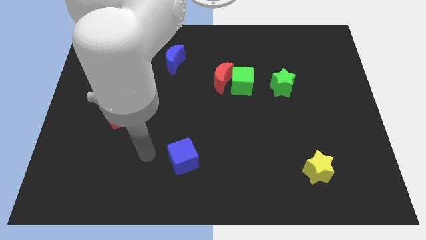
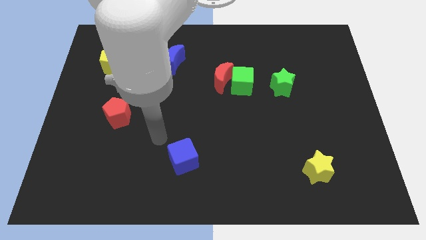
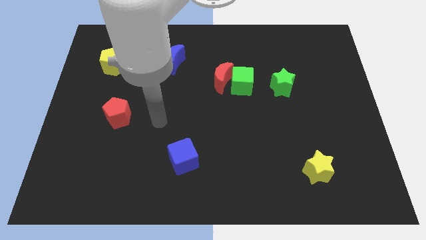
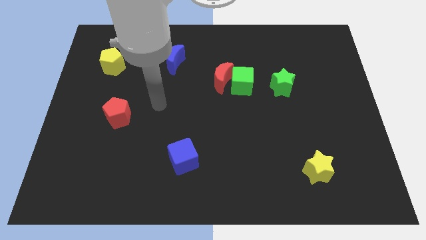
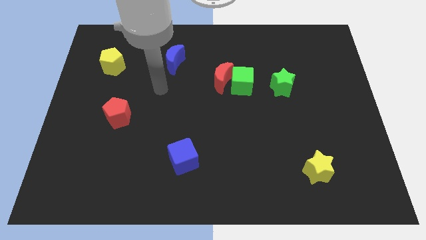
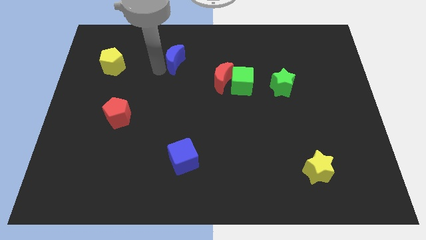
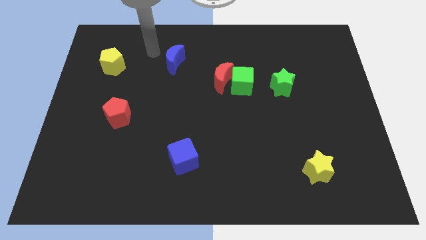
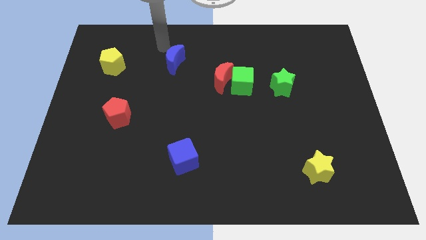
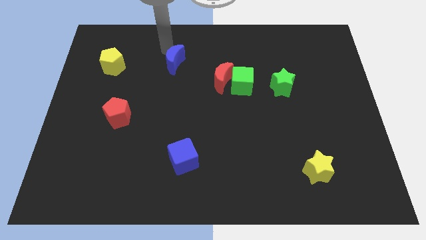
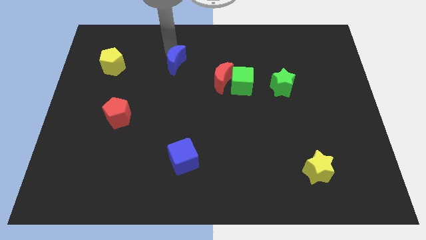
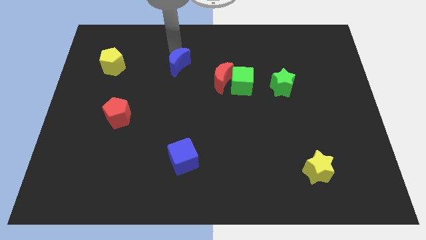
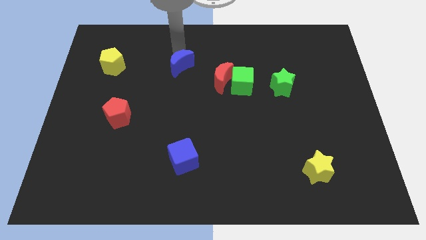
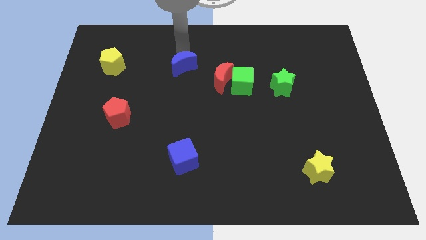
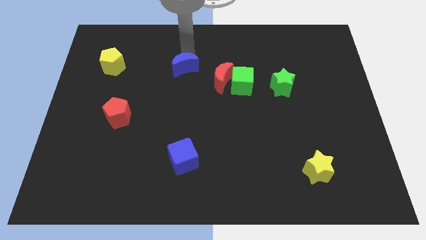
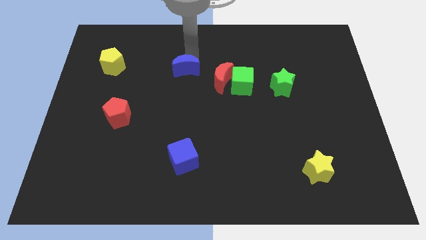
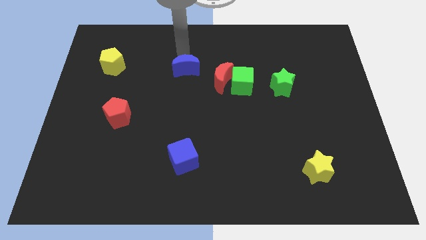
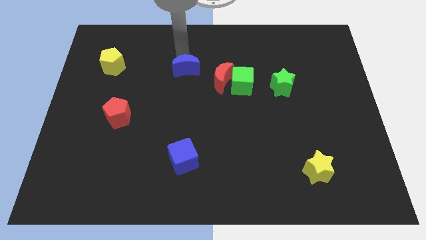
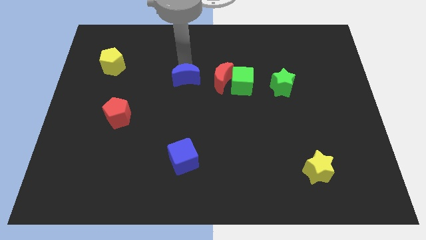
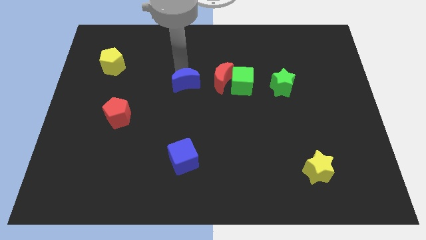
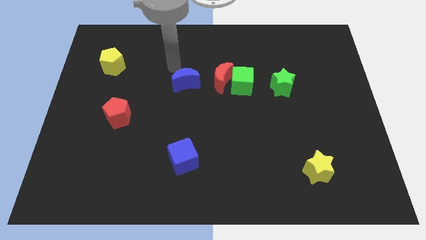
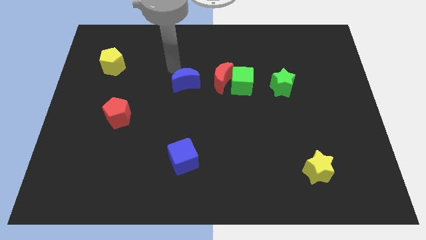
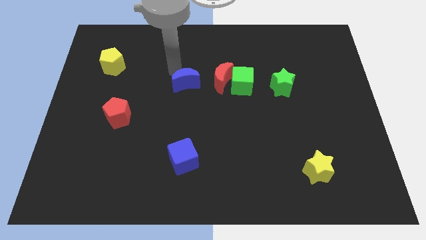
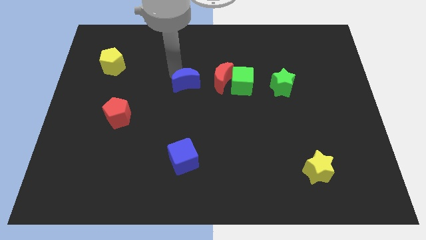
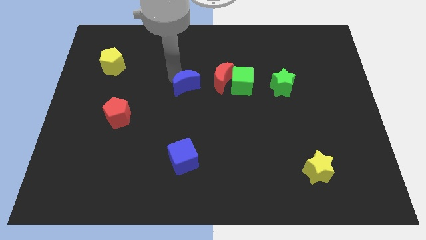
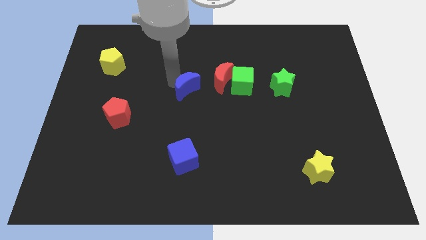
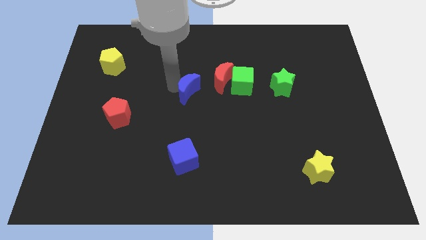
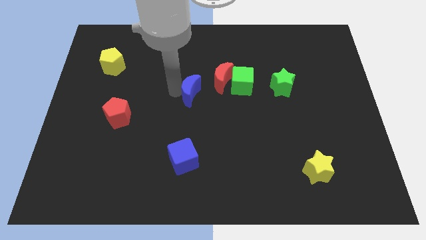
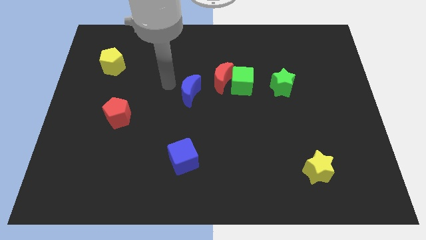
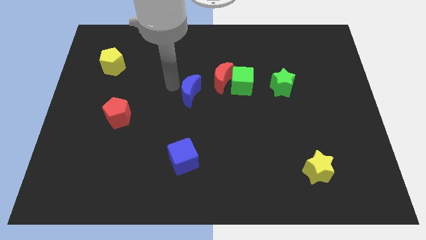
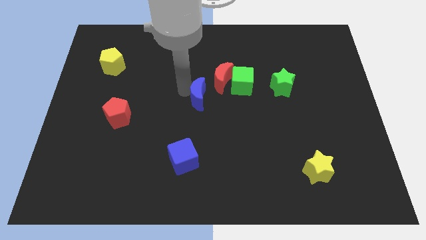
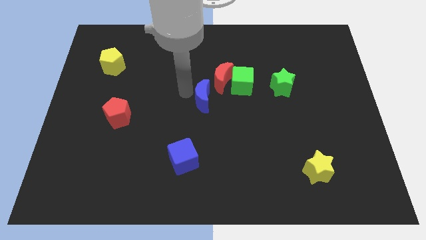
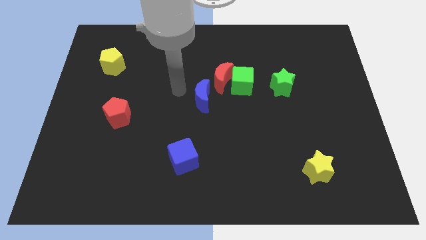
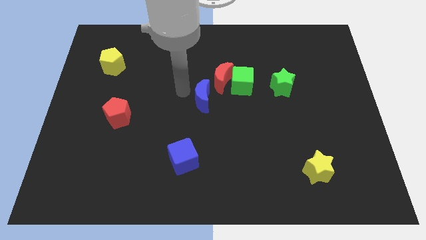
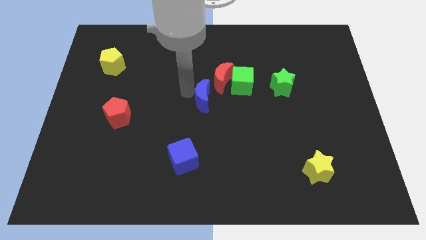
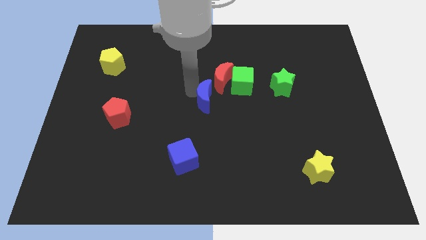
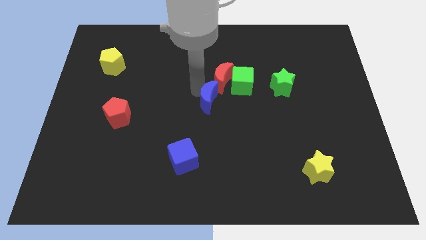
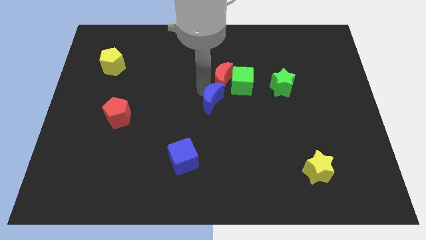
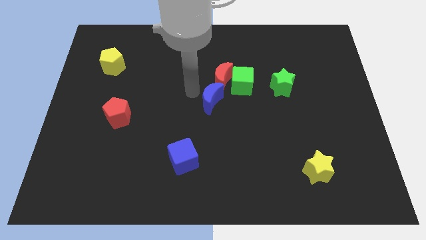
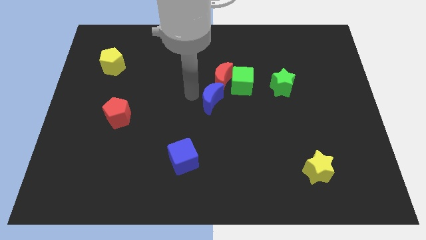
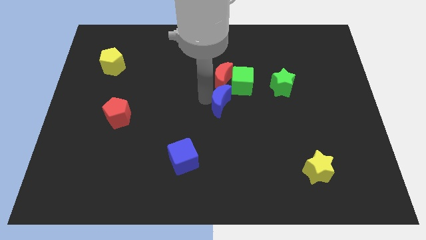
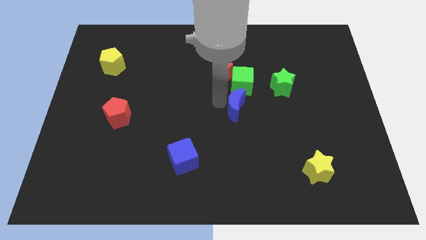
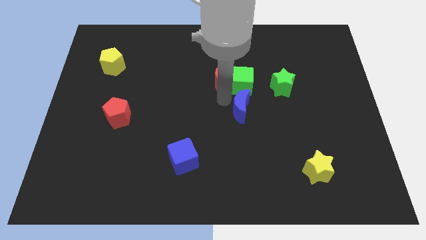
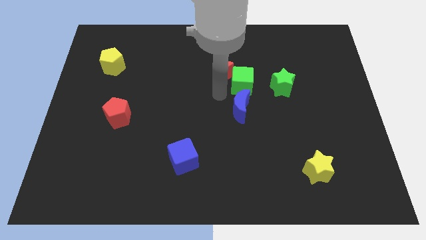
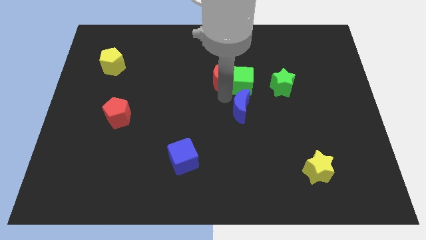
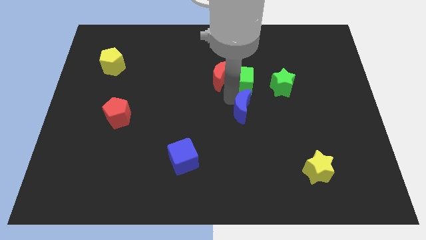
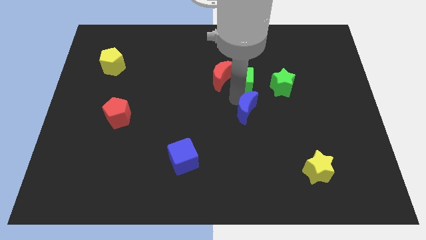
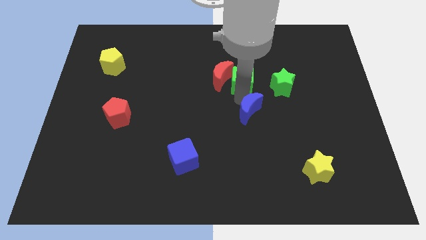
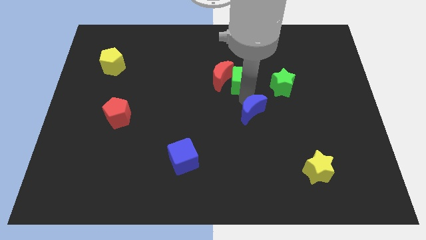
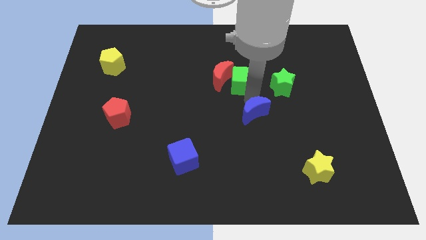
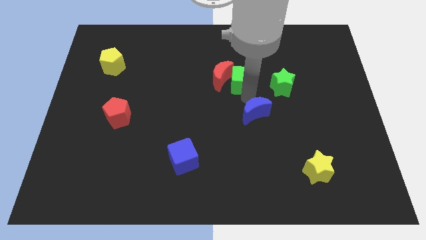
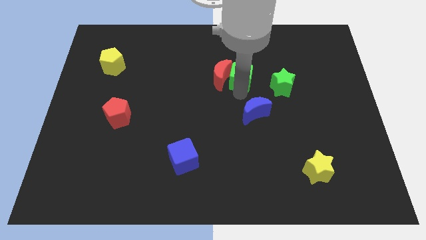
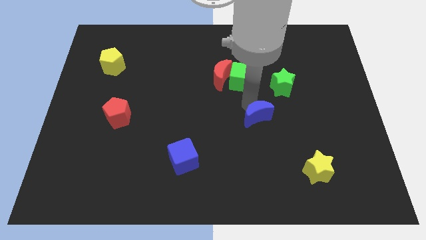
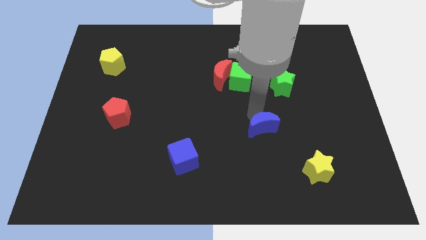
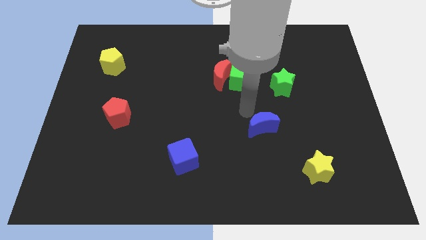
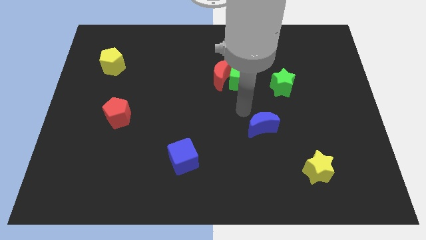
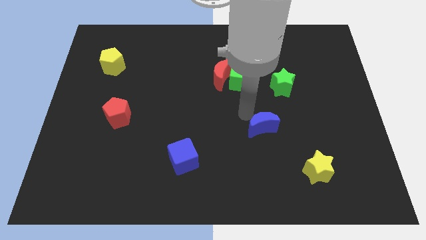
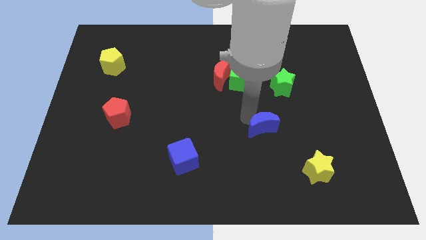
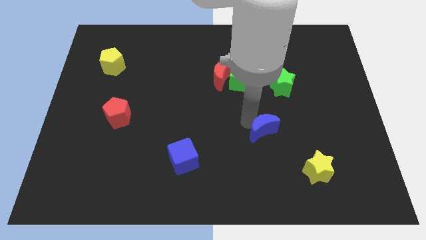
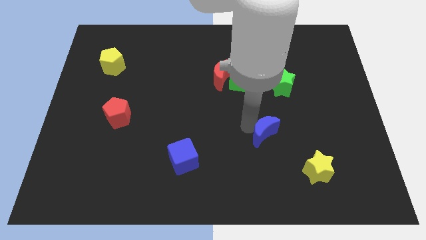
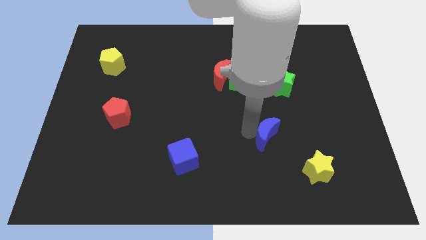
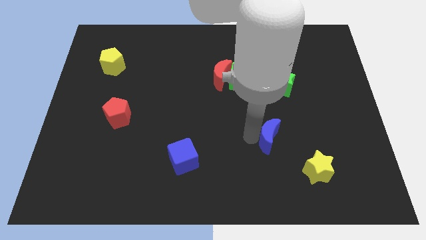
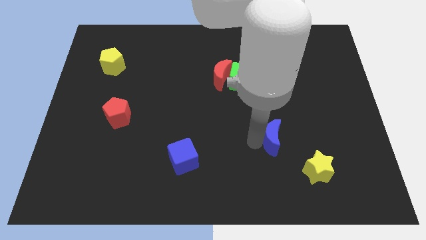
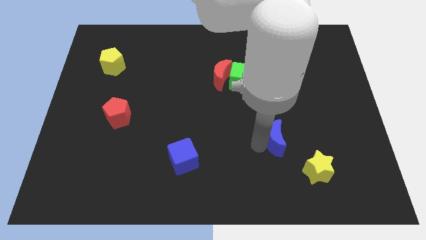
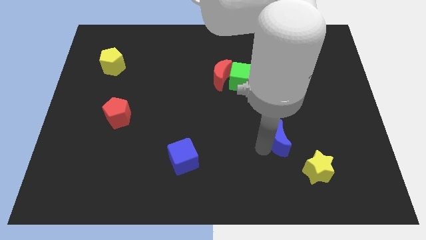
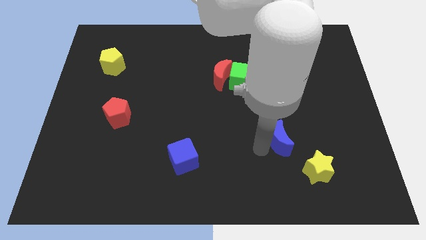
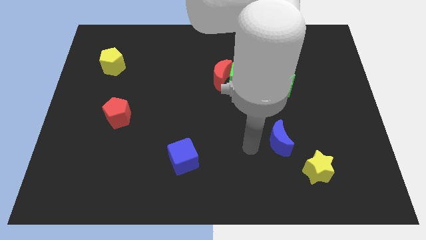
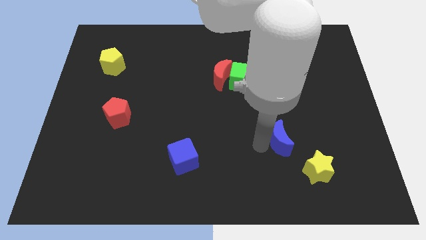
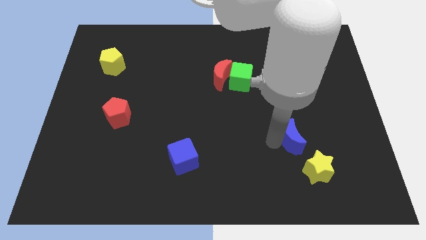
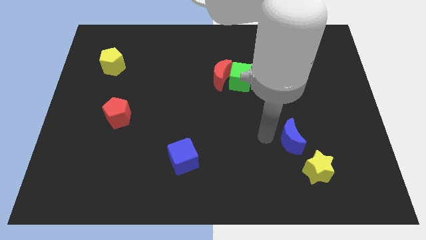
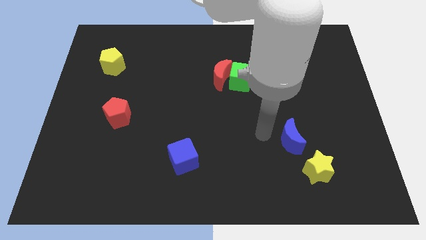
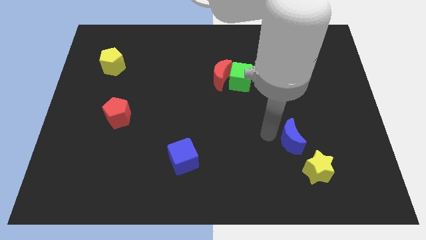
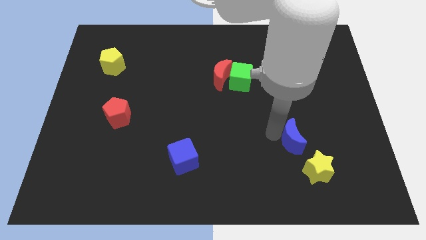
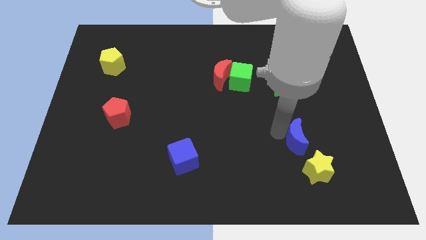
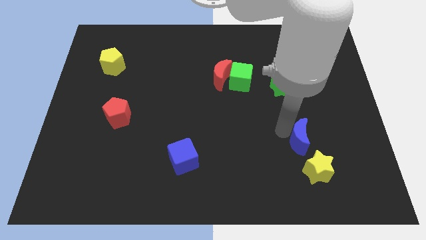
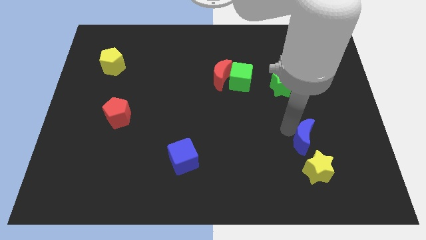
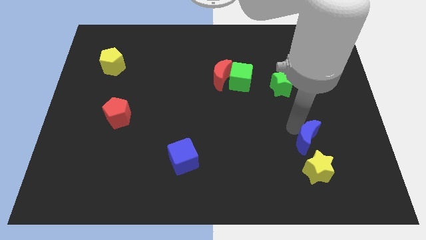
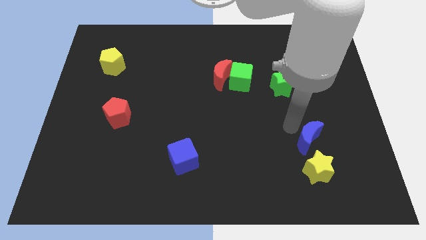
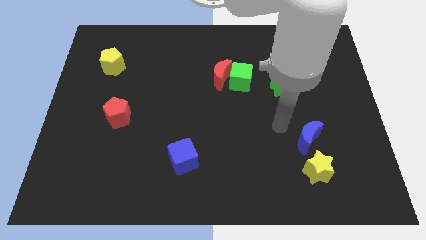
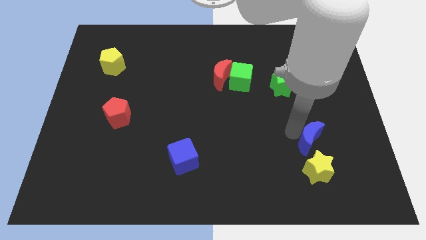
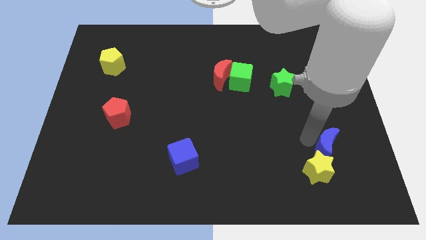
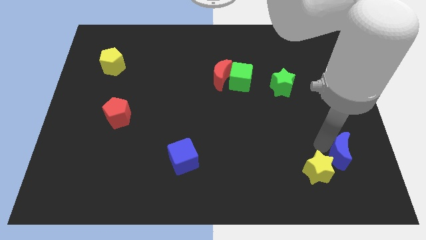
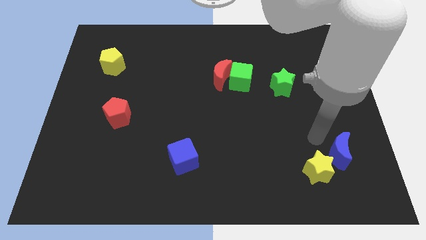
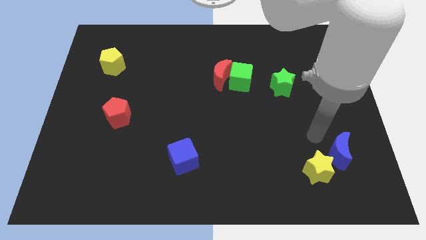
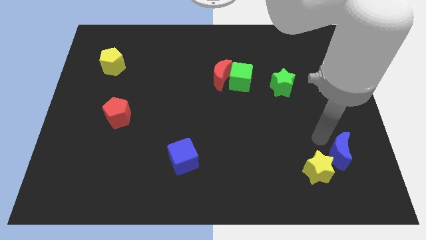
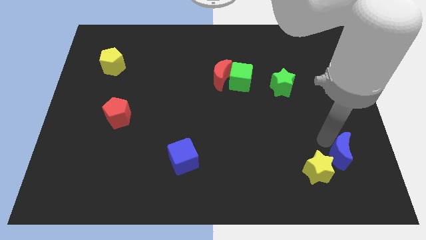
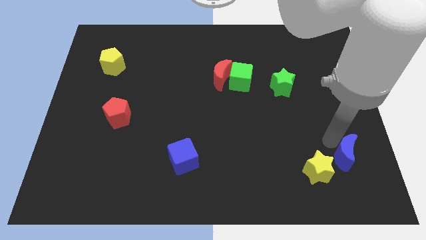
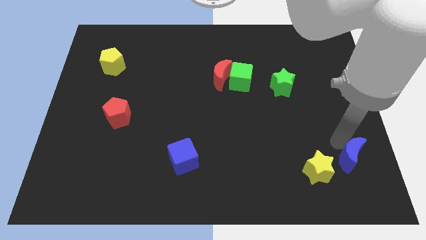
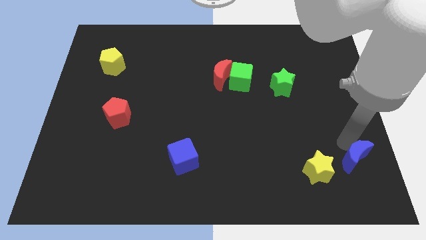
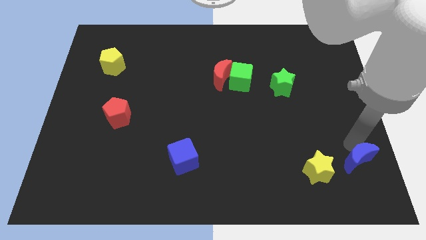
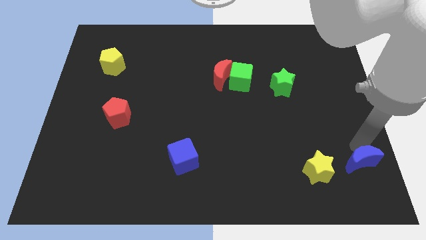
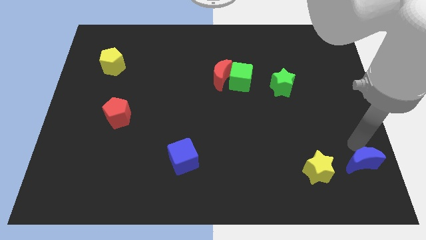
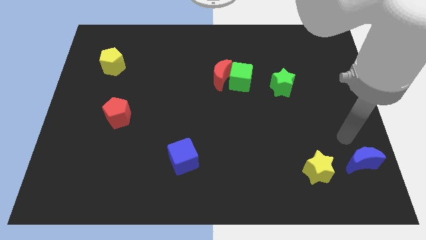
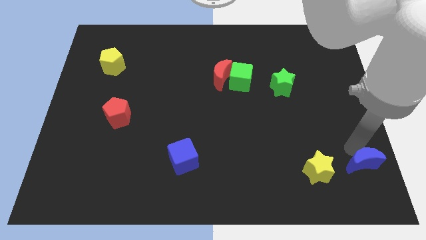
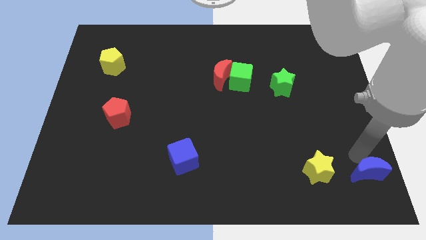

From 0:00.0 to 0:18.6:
move the blue moon to the bottom right
